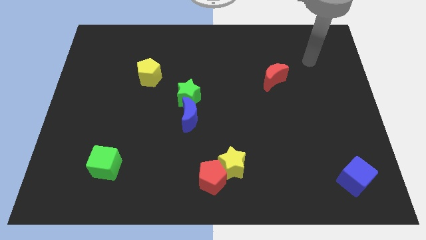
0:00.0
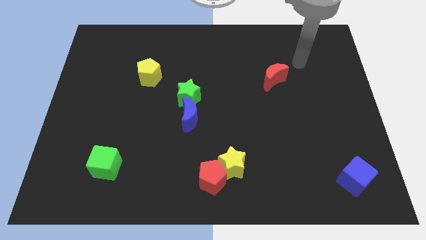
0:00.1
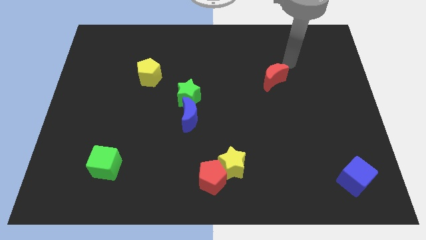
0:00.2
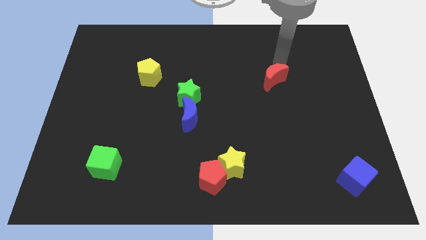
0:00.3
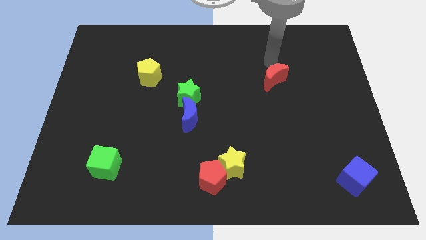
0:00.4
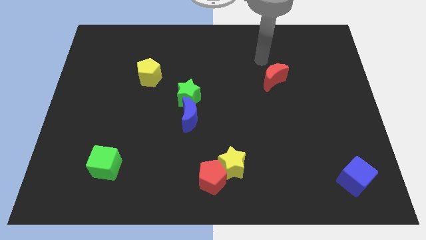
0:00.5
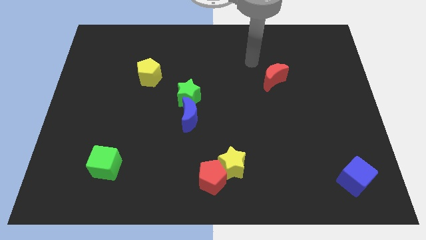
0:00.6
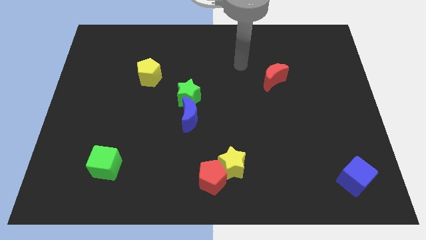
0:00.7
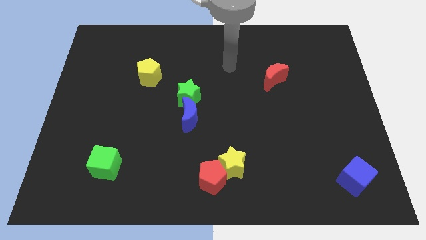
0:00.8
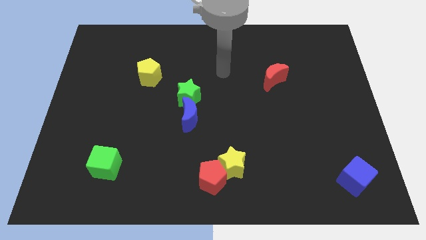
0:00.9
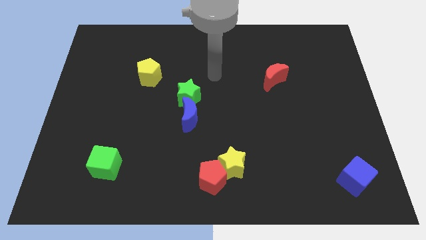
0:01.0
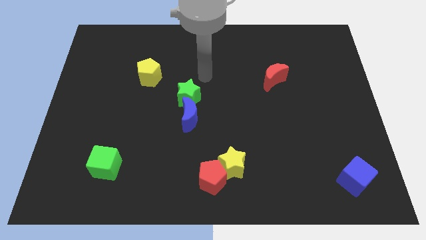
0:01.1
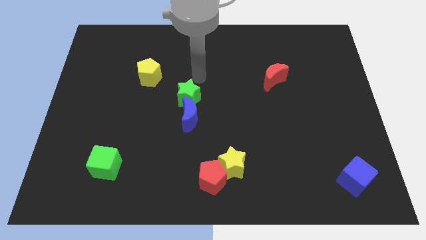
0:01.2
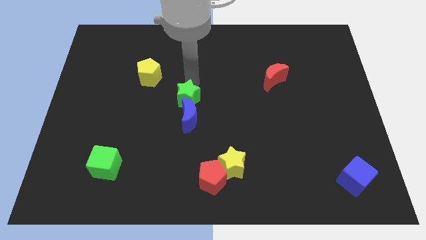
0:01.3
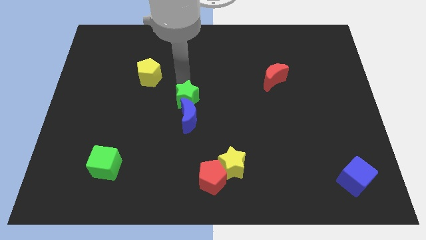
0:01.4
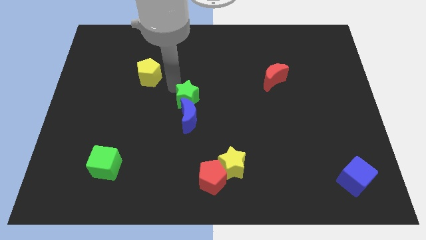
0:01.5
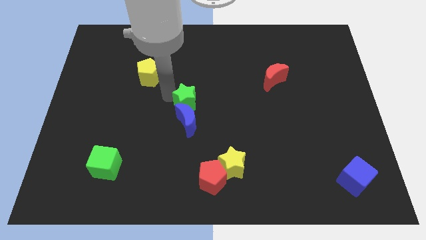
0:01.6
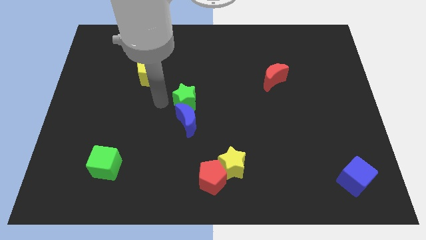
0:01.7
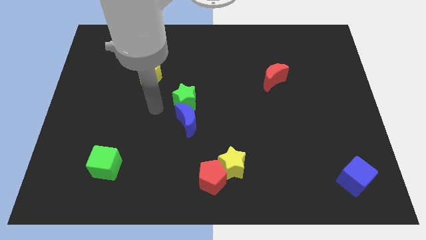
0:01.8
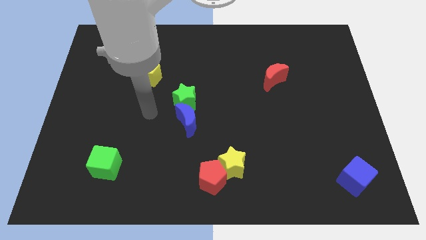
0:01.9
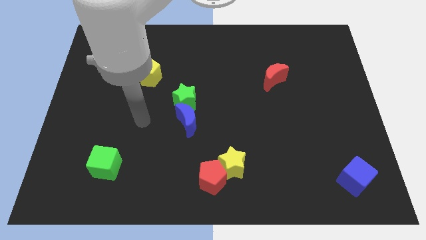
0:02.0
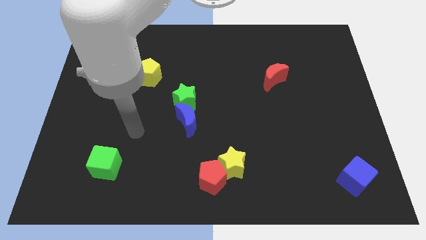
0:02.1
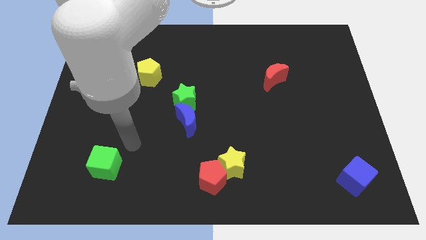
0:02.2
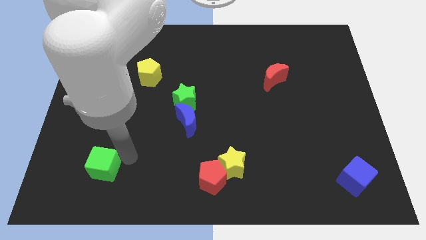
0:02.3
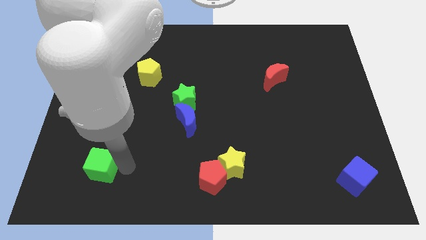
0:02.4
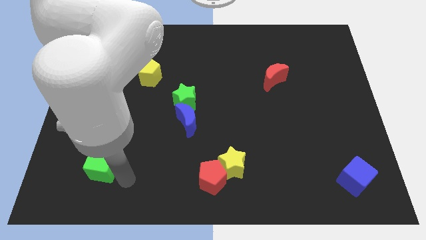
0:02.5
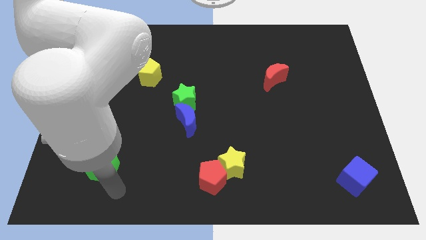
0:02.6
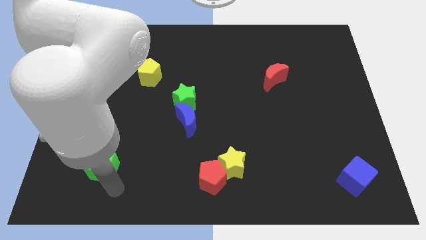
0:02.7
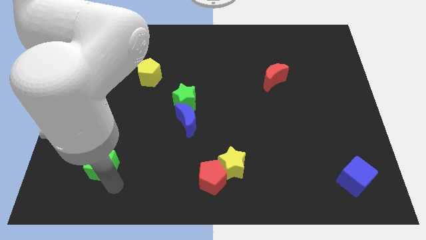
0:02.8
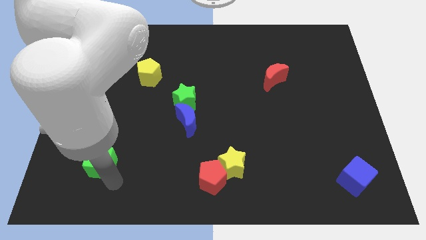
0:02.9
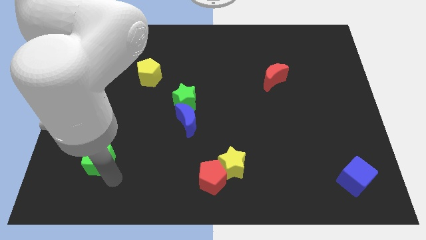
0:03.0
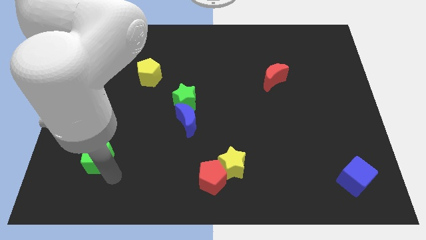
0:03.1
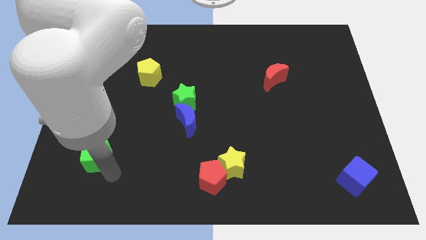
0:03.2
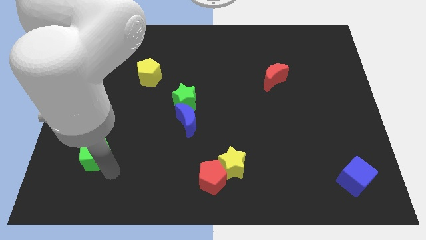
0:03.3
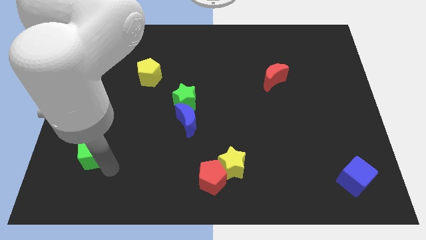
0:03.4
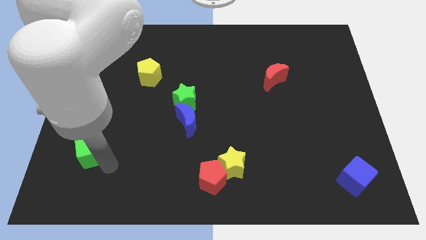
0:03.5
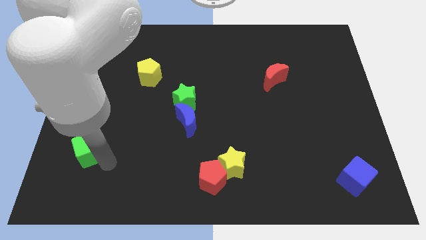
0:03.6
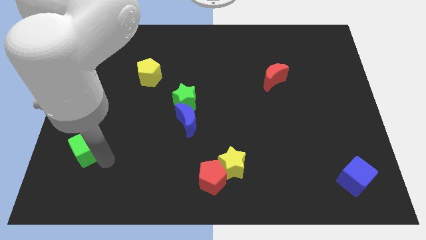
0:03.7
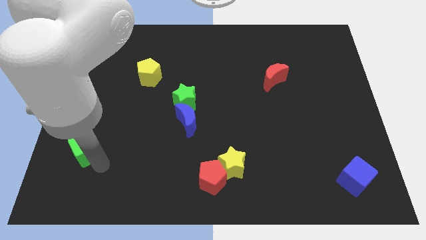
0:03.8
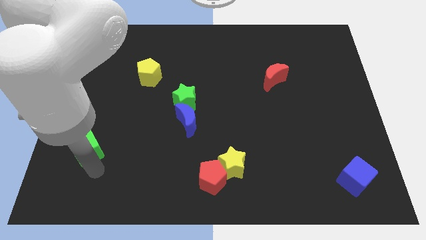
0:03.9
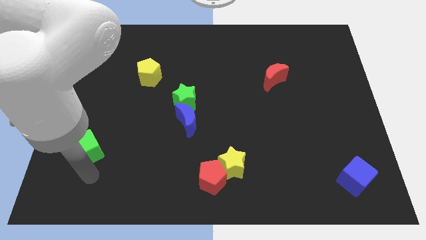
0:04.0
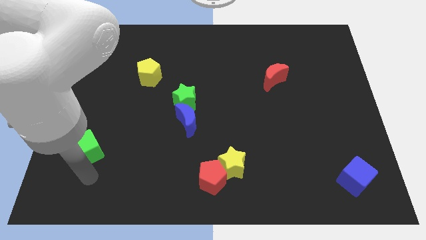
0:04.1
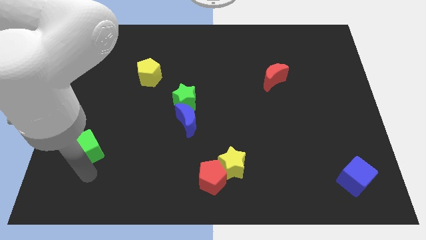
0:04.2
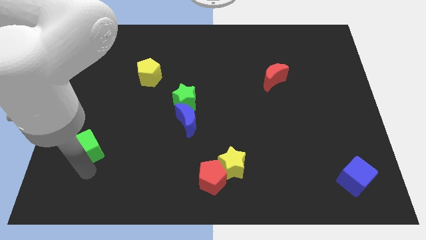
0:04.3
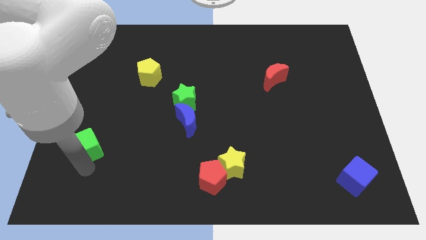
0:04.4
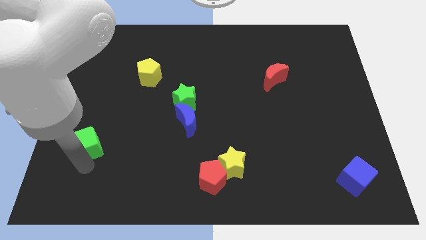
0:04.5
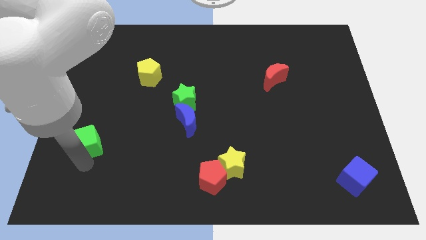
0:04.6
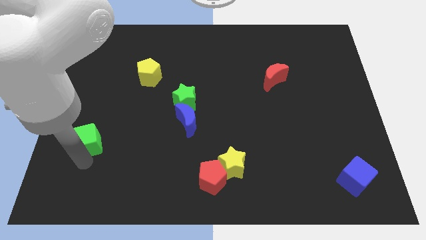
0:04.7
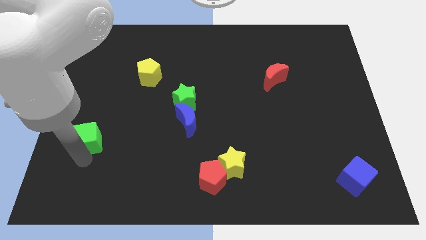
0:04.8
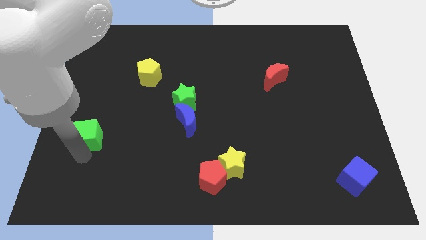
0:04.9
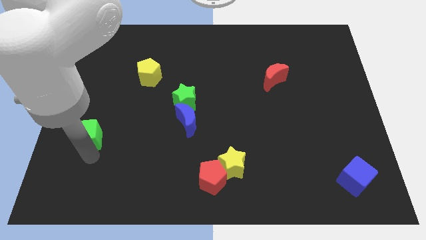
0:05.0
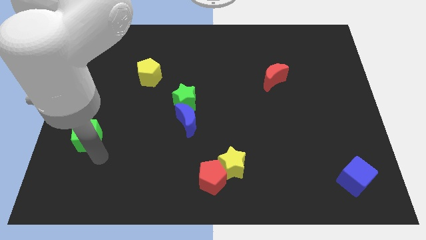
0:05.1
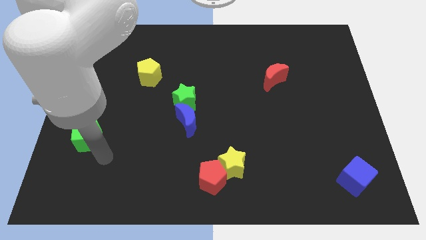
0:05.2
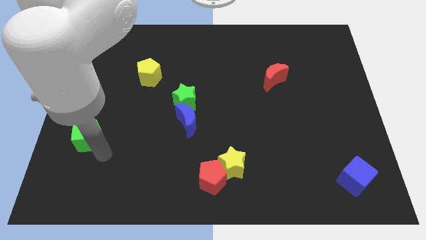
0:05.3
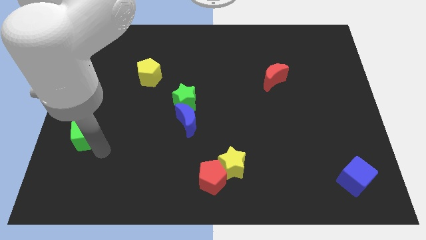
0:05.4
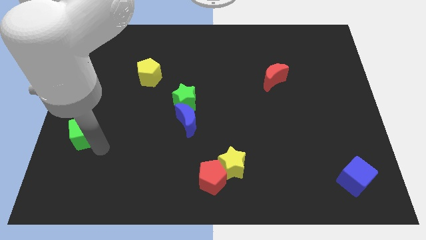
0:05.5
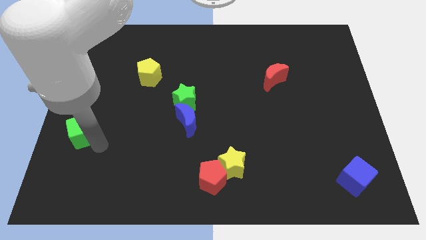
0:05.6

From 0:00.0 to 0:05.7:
push the green cube to the center left

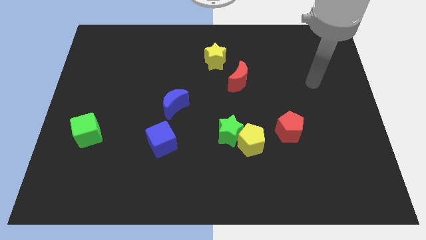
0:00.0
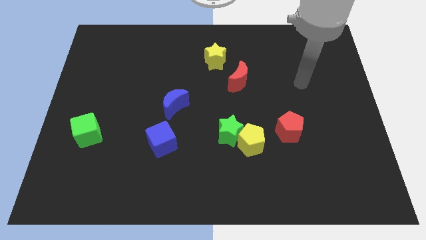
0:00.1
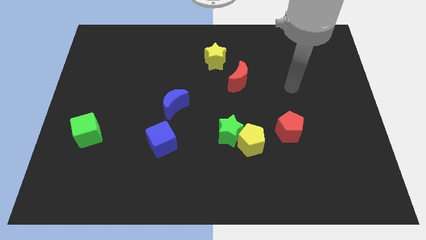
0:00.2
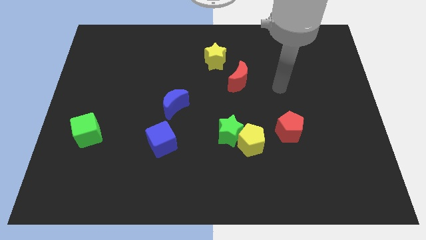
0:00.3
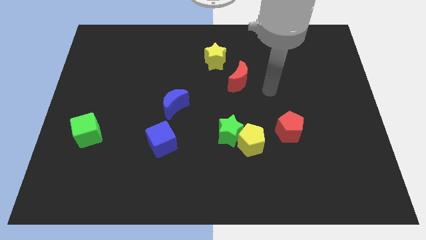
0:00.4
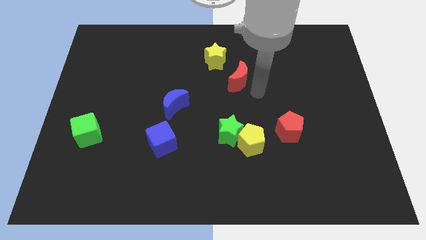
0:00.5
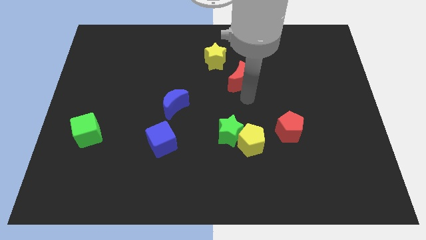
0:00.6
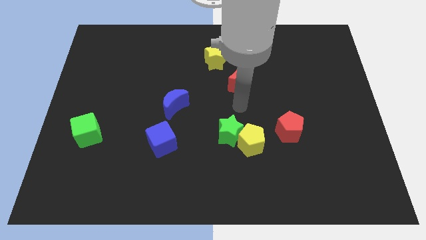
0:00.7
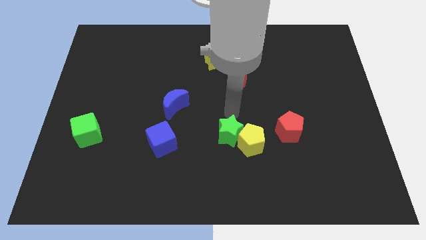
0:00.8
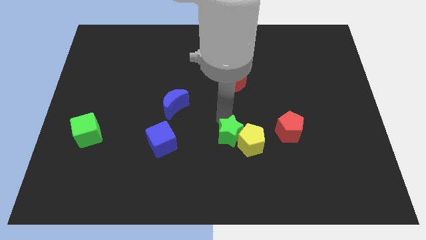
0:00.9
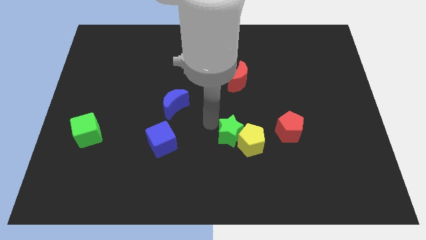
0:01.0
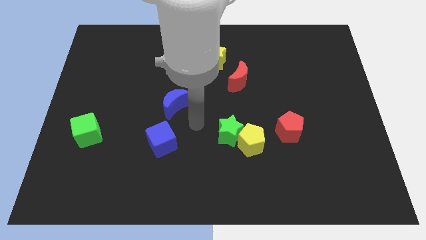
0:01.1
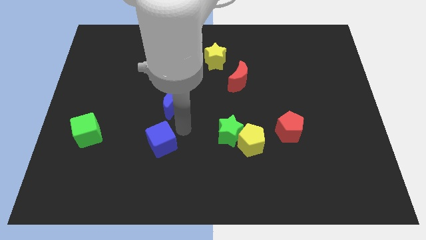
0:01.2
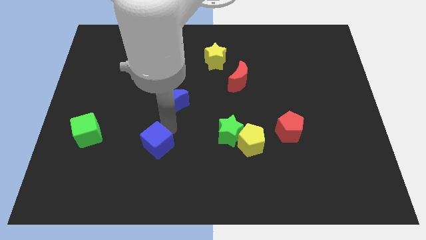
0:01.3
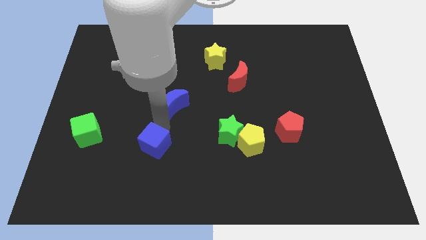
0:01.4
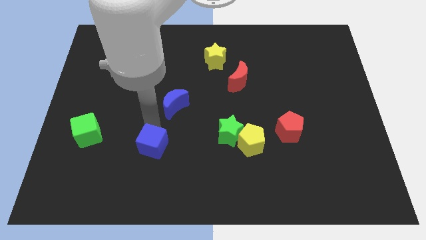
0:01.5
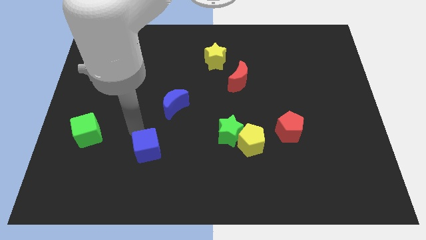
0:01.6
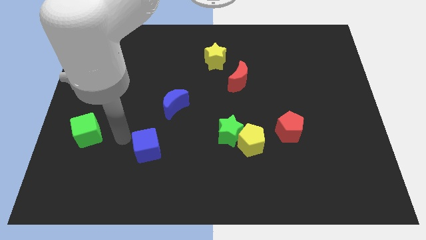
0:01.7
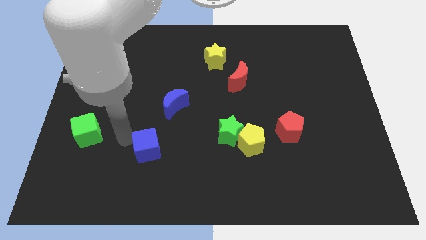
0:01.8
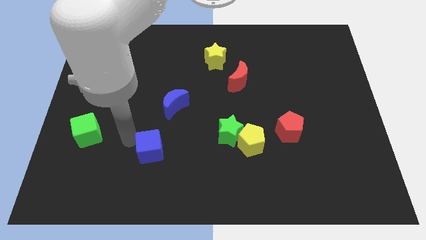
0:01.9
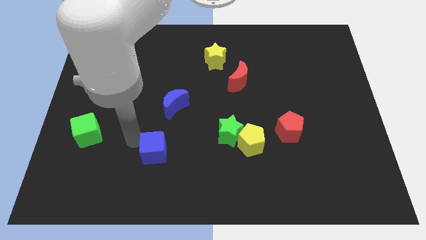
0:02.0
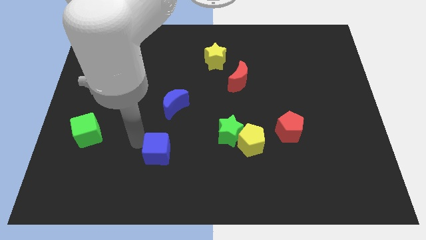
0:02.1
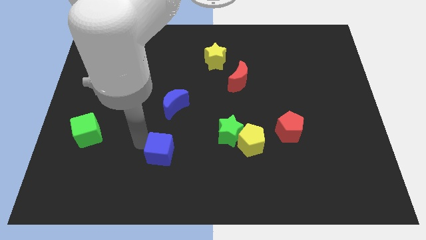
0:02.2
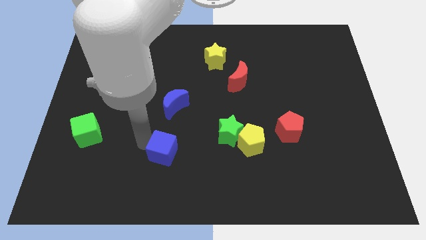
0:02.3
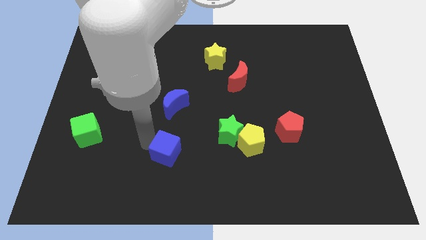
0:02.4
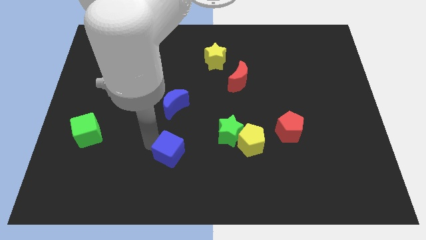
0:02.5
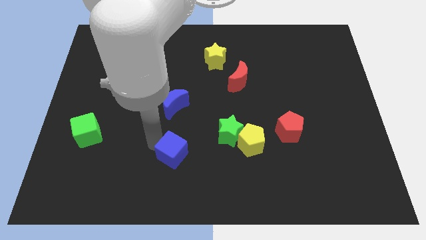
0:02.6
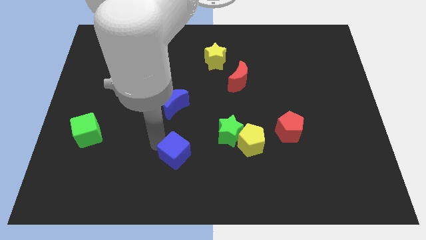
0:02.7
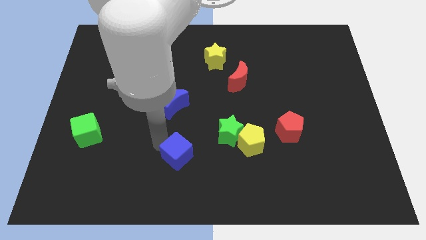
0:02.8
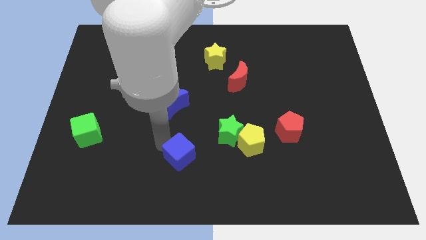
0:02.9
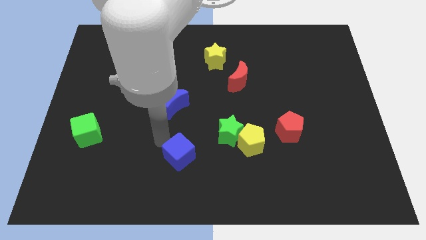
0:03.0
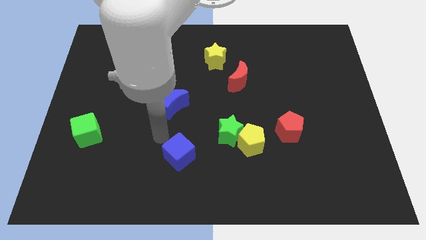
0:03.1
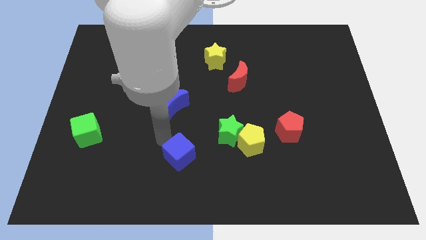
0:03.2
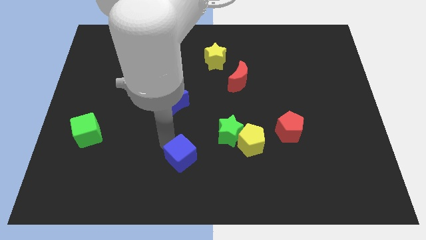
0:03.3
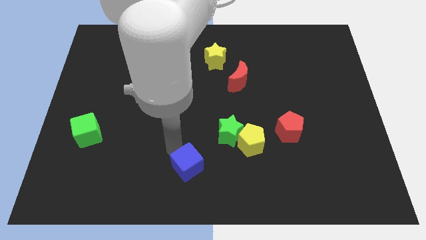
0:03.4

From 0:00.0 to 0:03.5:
push the blue cube to the bottom side
